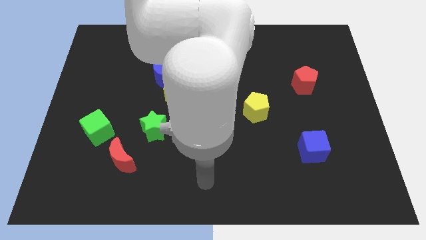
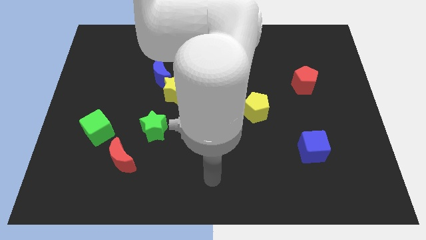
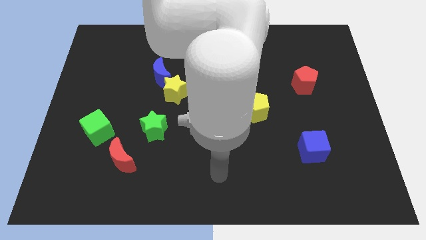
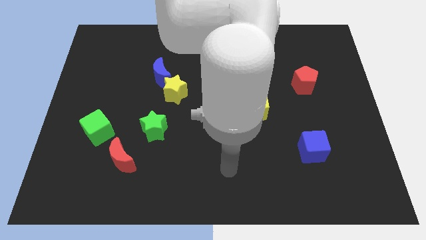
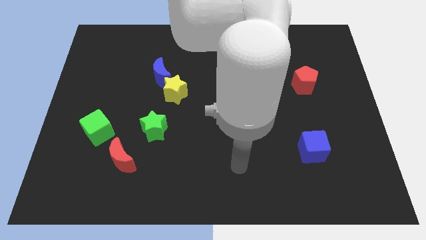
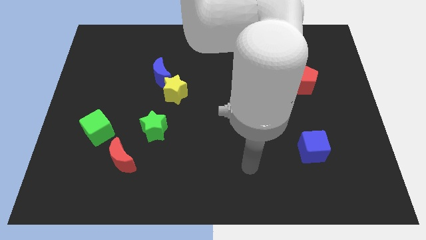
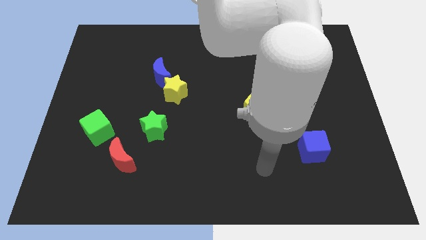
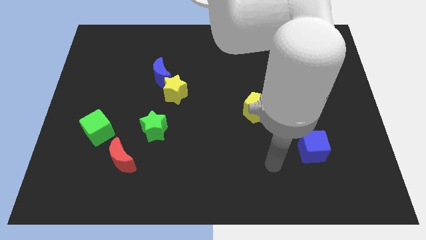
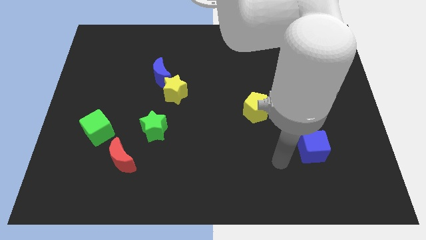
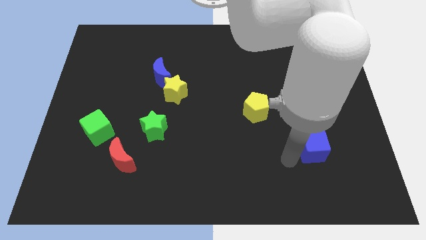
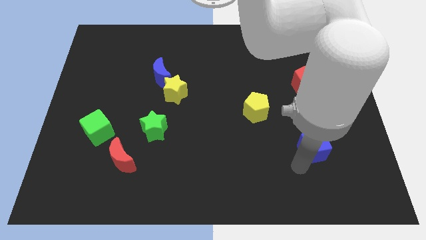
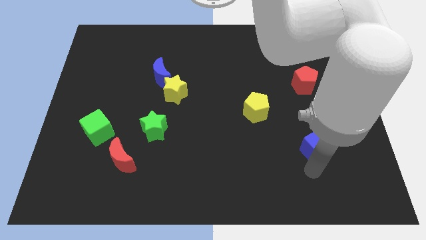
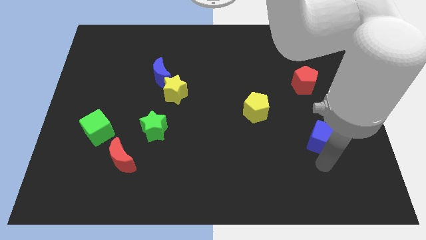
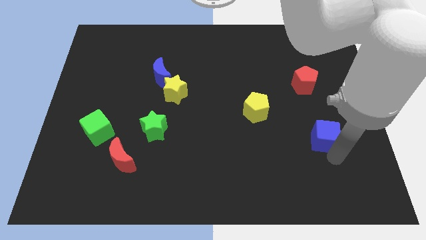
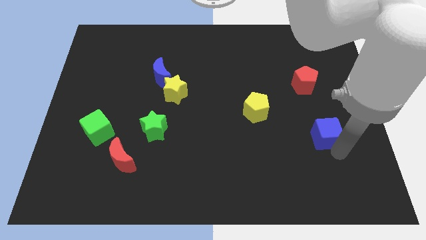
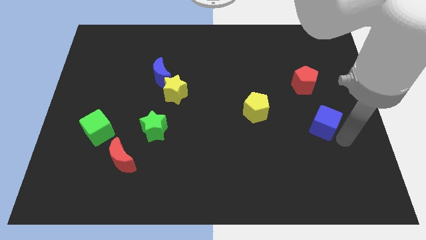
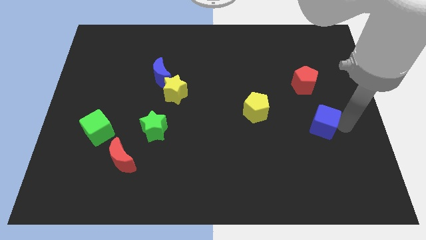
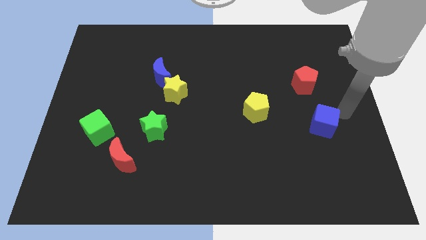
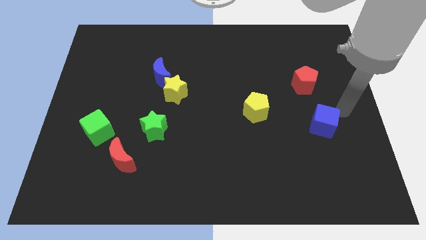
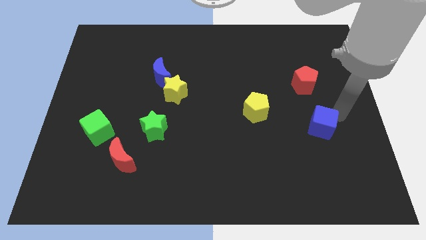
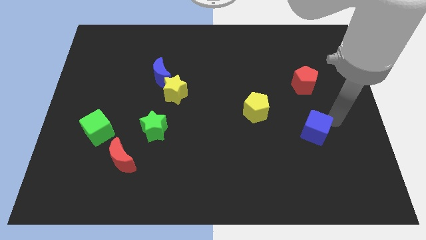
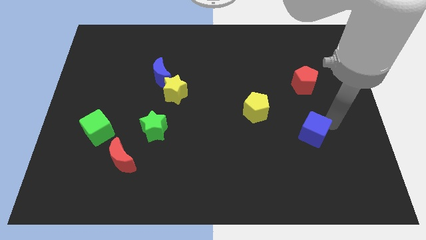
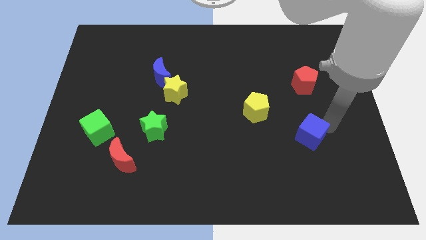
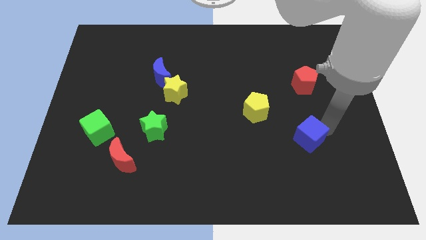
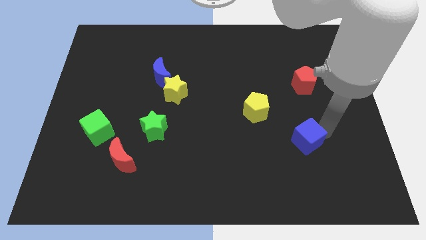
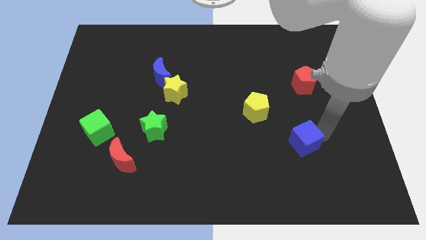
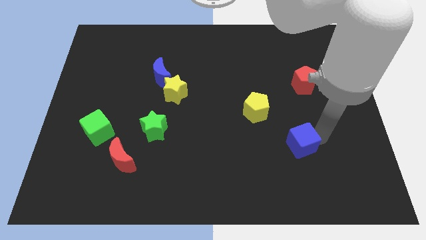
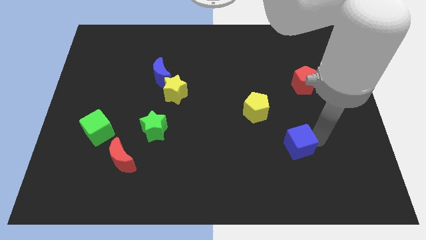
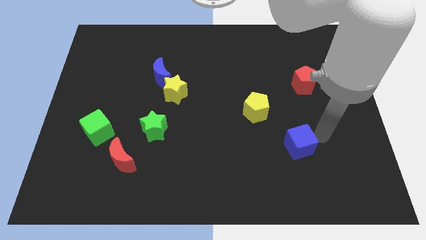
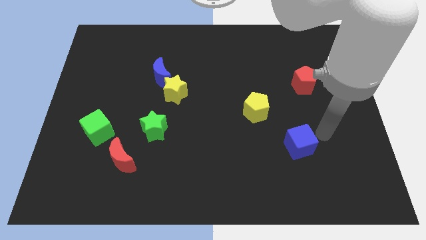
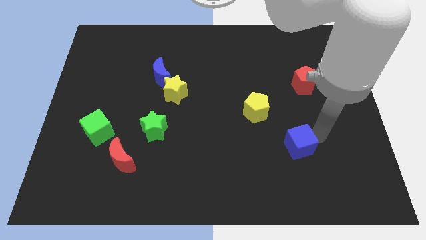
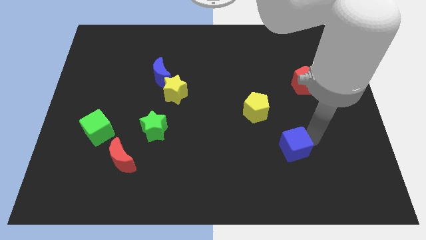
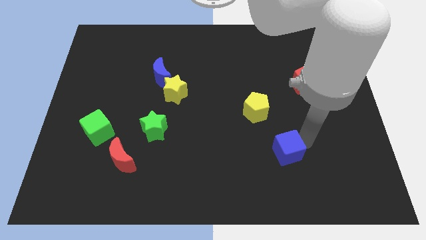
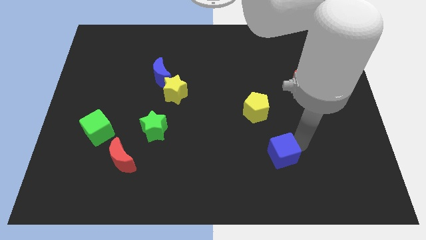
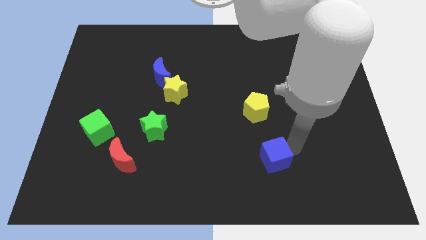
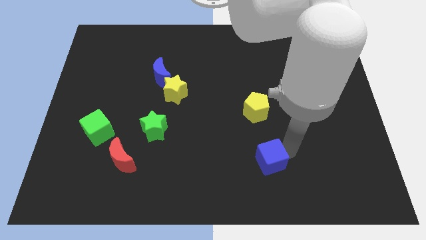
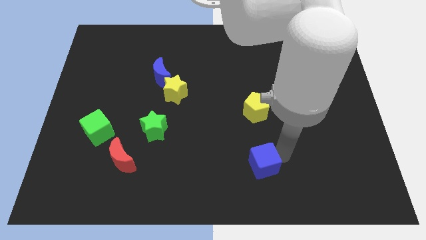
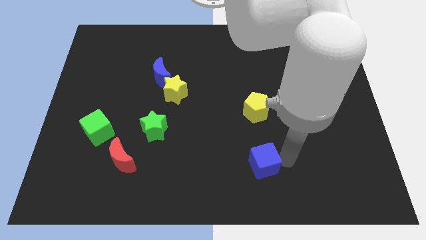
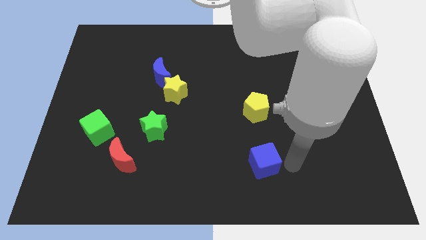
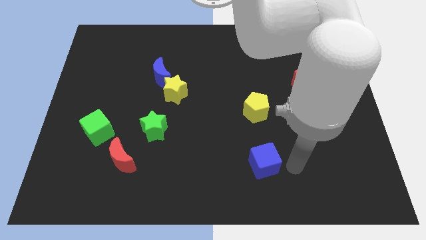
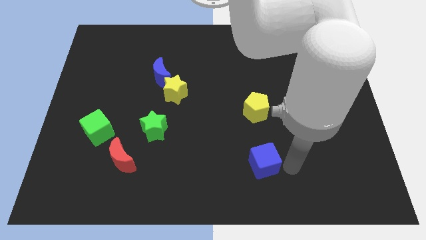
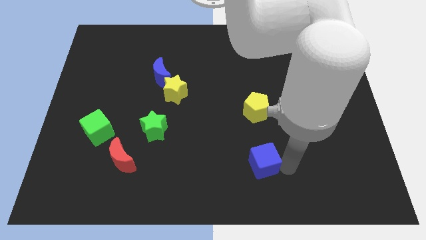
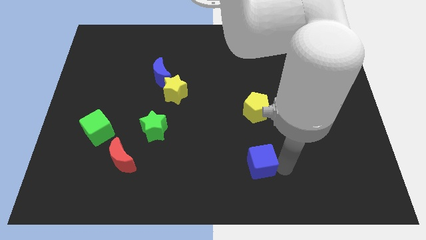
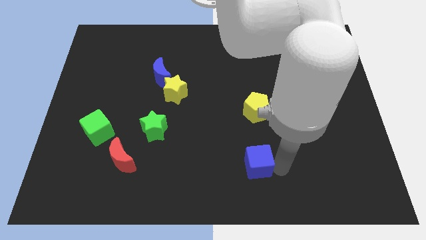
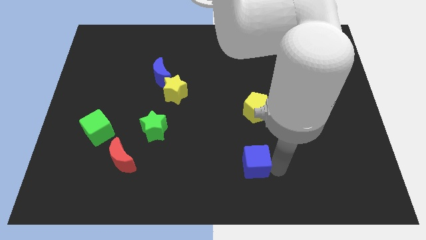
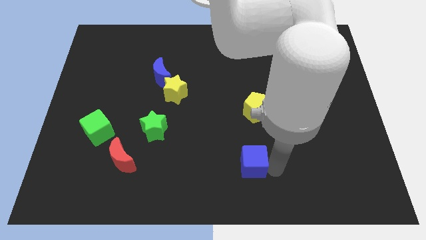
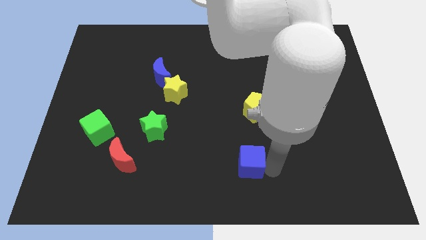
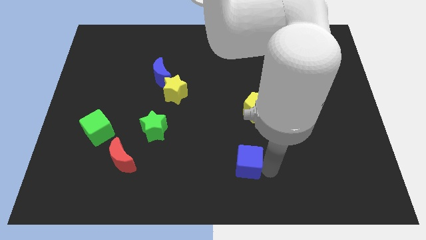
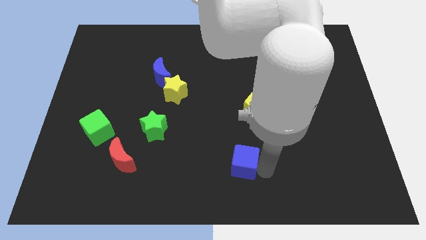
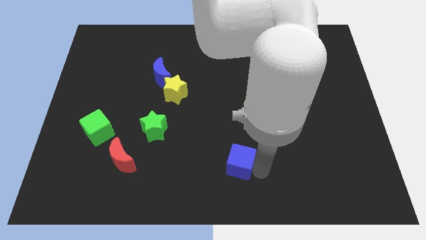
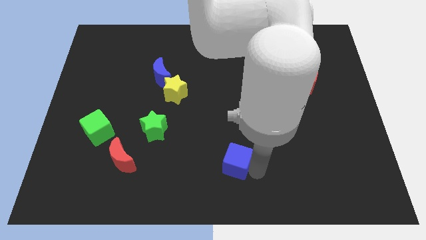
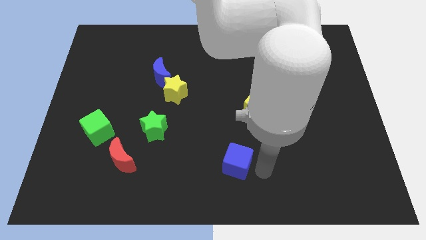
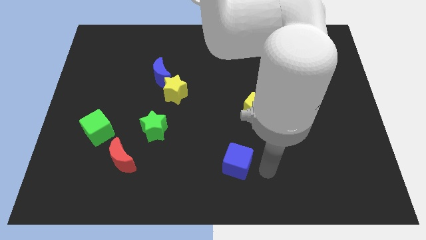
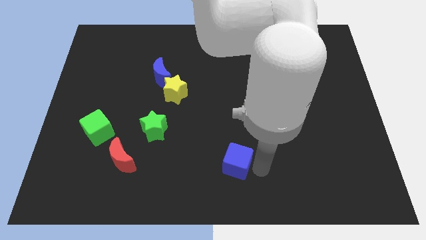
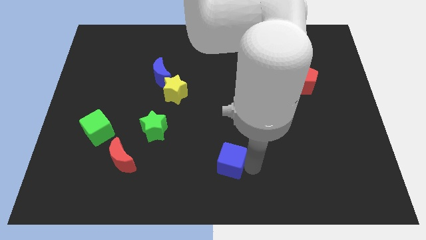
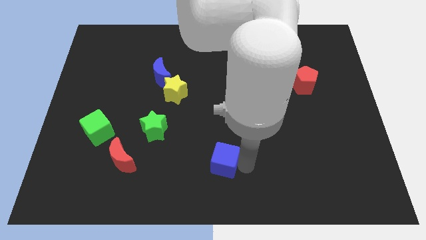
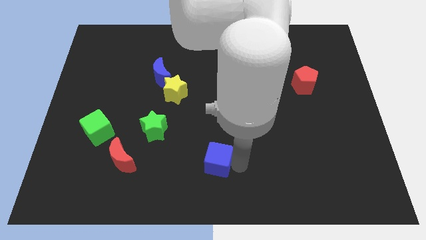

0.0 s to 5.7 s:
push the blue cube left

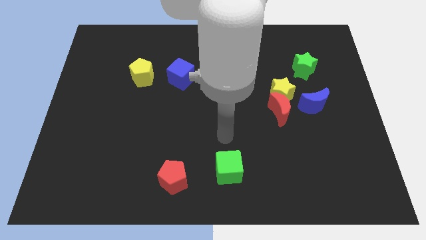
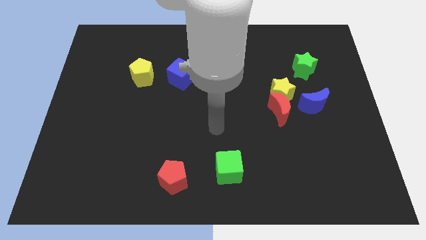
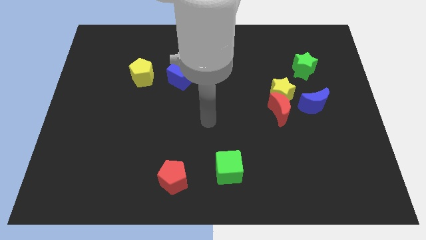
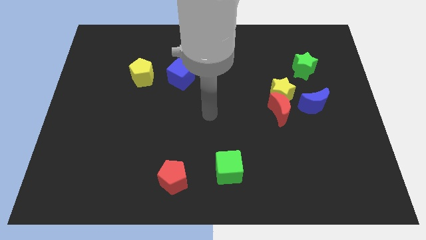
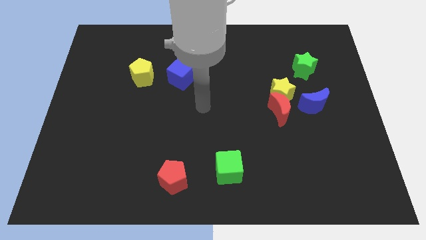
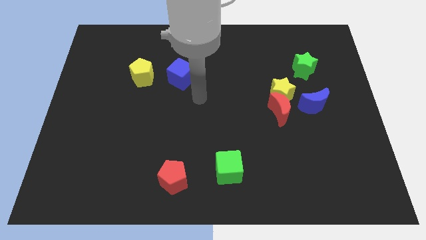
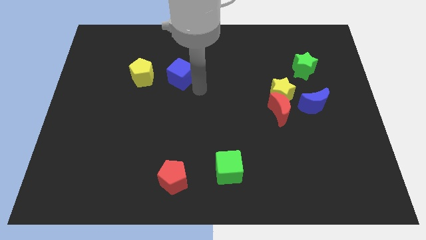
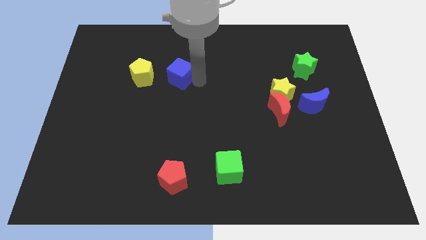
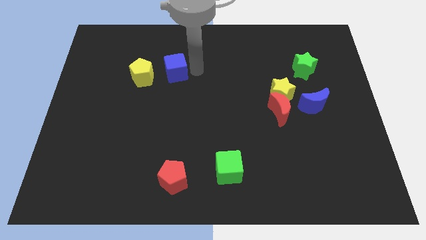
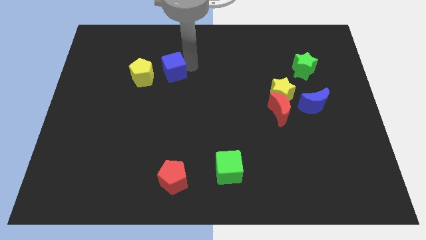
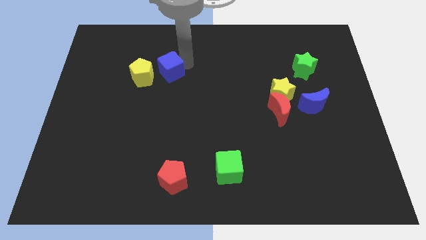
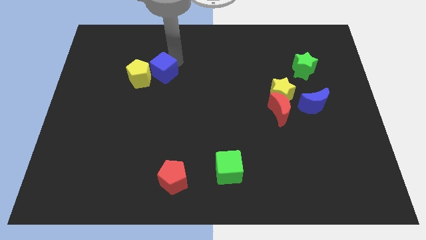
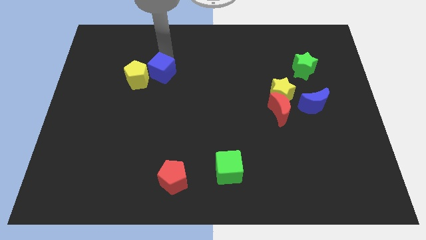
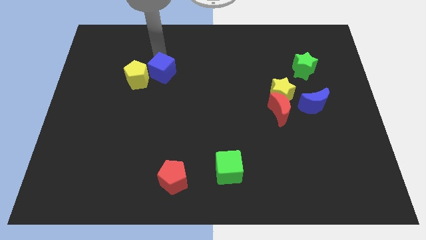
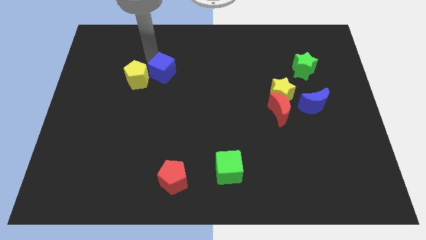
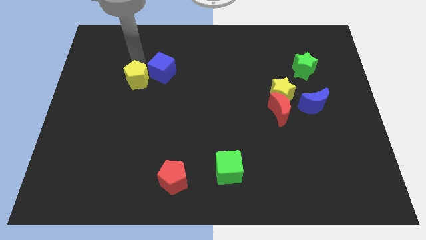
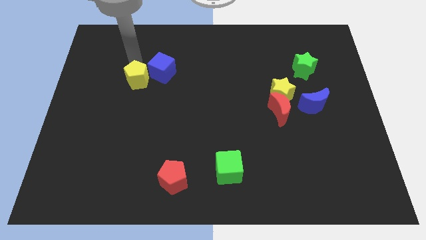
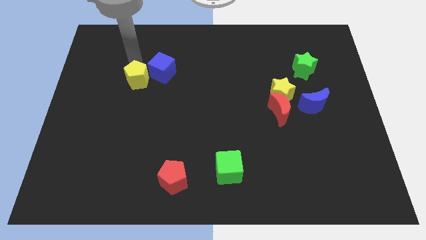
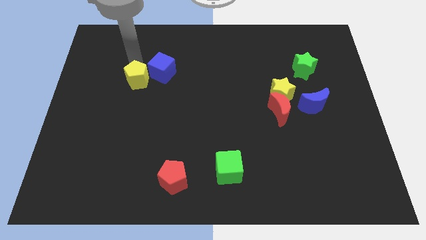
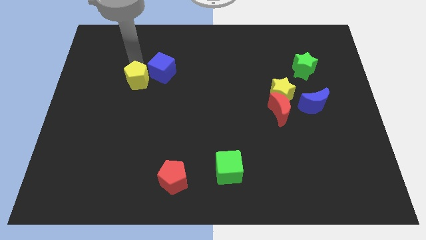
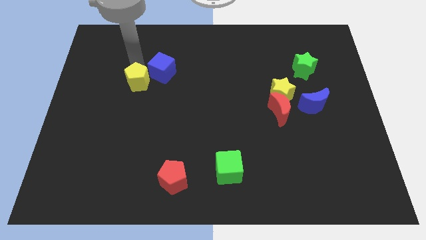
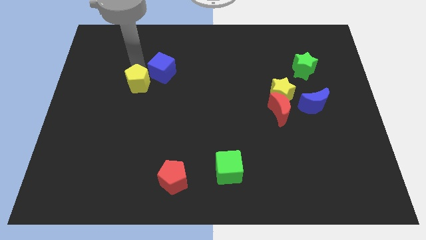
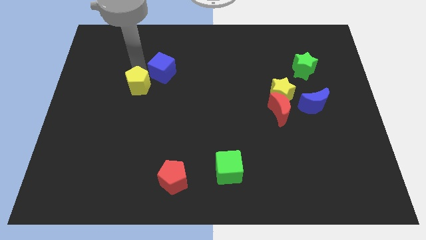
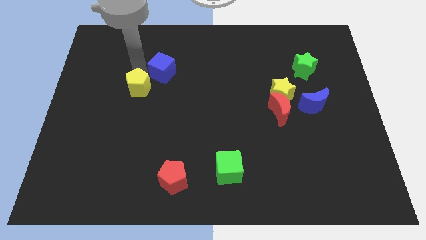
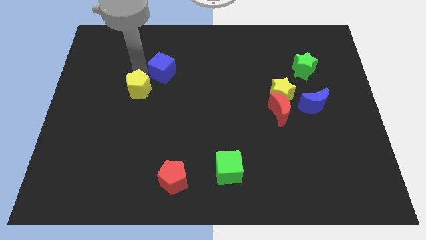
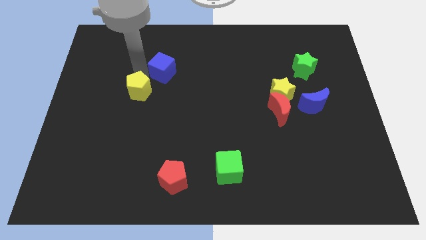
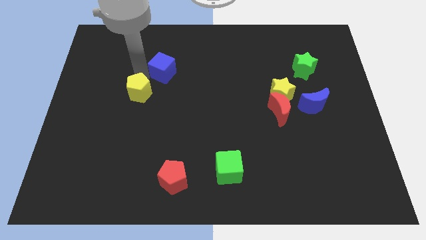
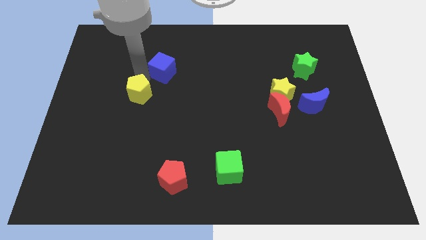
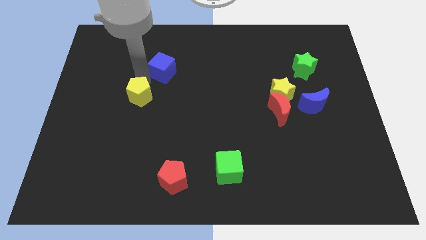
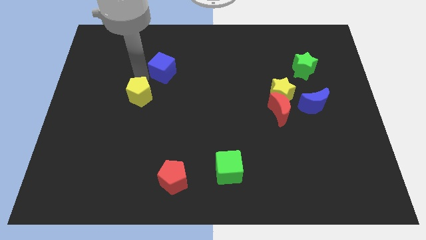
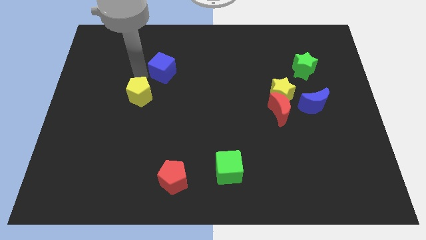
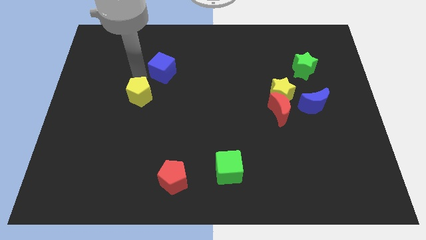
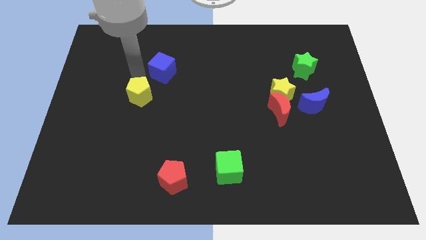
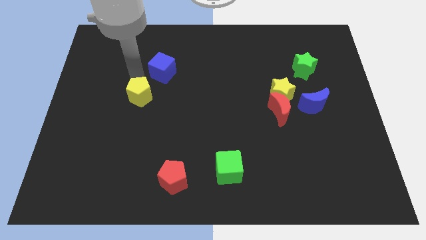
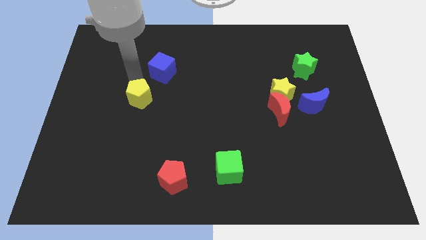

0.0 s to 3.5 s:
slide the yellow pentagon down slightly
